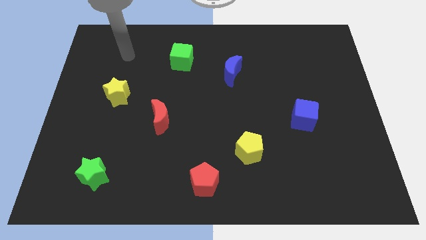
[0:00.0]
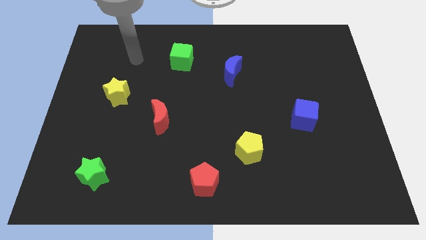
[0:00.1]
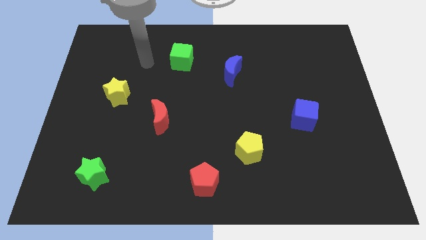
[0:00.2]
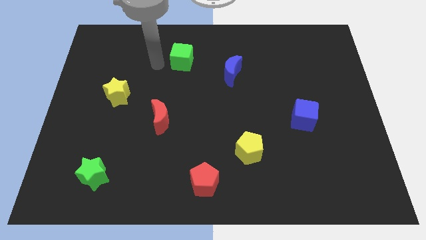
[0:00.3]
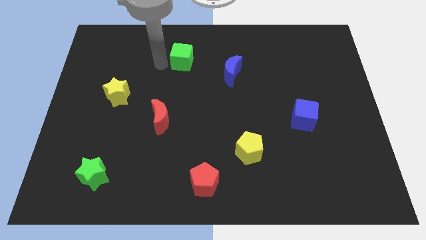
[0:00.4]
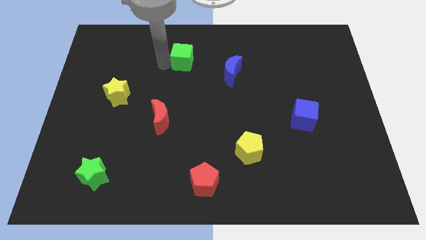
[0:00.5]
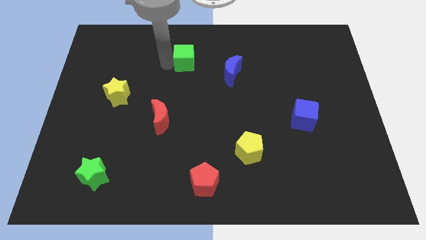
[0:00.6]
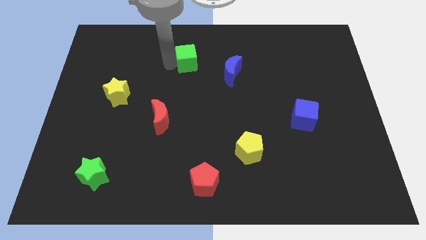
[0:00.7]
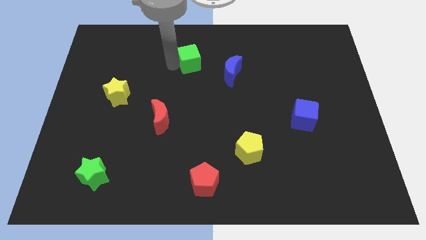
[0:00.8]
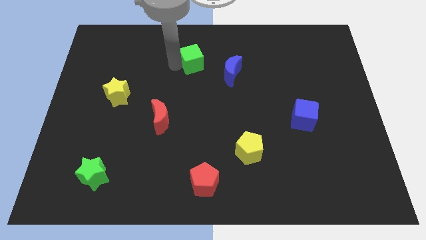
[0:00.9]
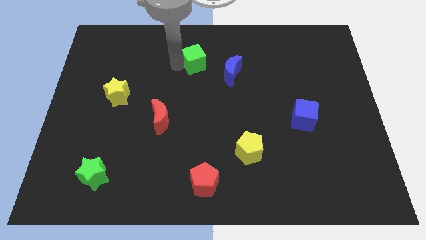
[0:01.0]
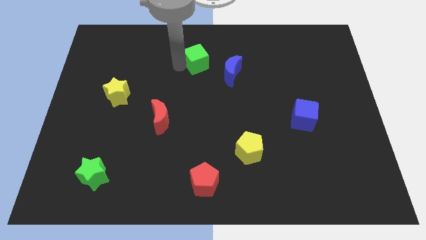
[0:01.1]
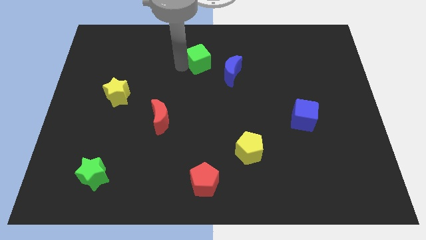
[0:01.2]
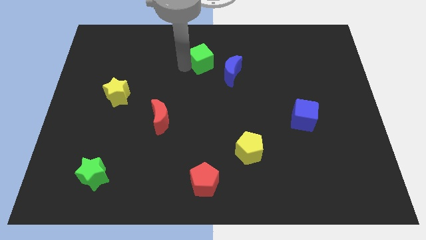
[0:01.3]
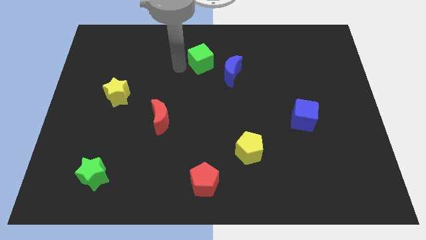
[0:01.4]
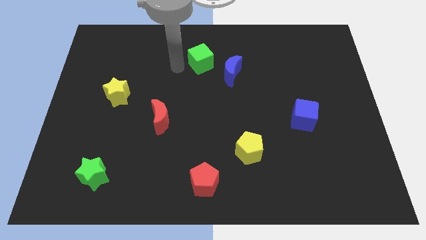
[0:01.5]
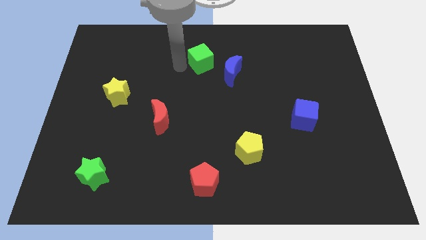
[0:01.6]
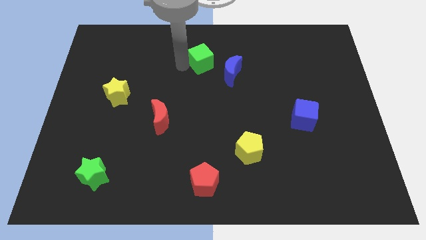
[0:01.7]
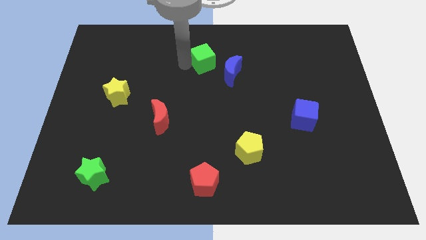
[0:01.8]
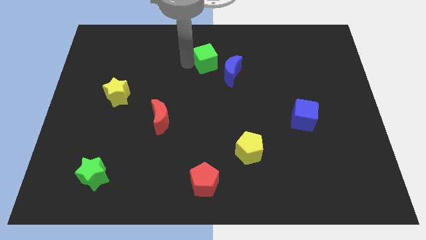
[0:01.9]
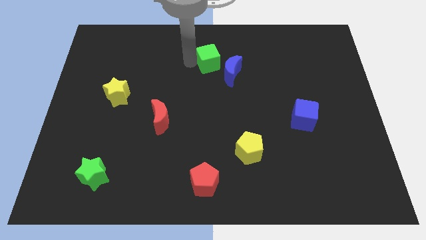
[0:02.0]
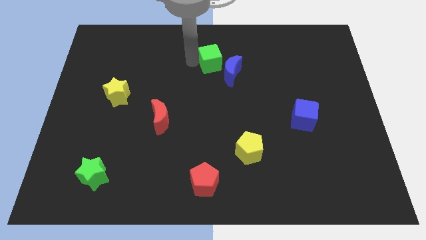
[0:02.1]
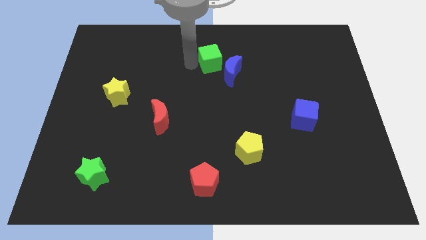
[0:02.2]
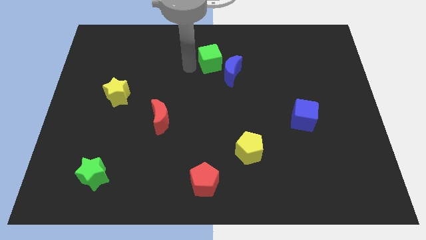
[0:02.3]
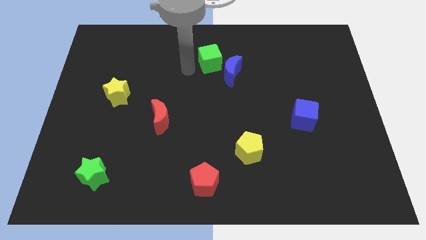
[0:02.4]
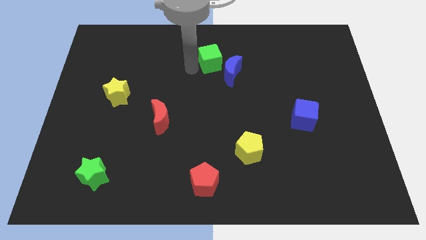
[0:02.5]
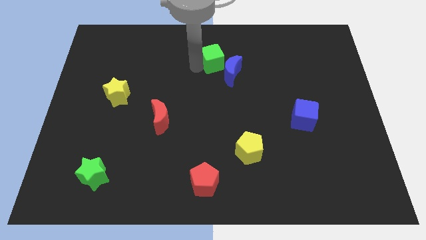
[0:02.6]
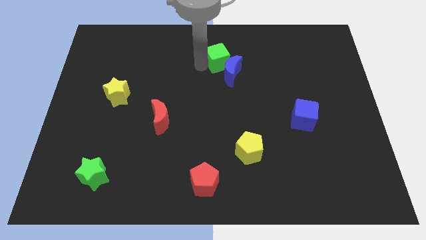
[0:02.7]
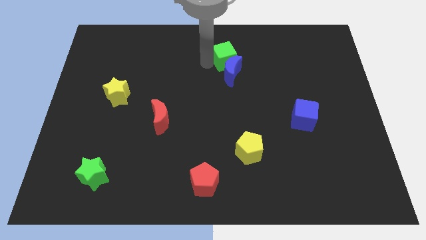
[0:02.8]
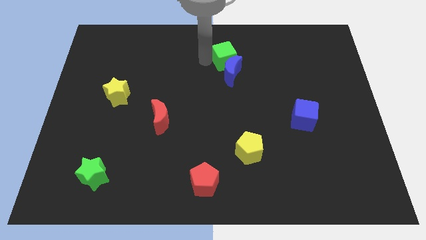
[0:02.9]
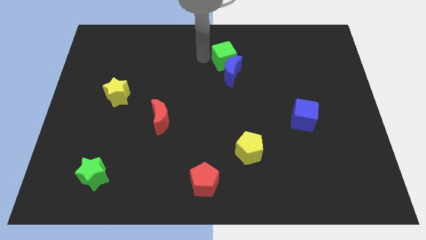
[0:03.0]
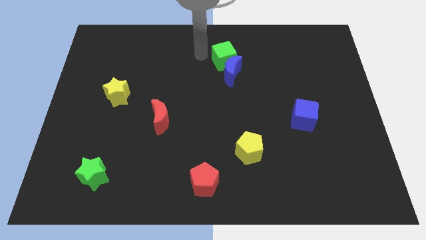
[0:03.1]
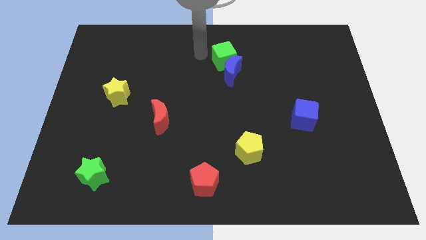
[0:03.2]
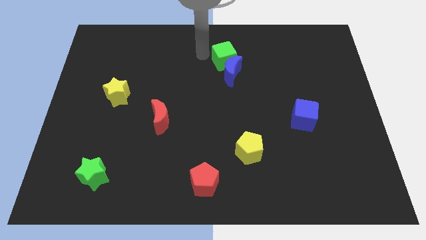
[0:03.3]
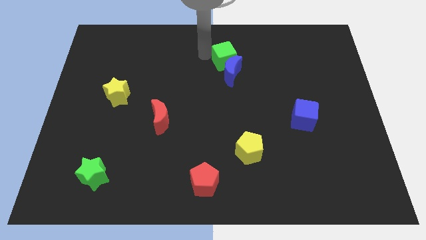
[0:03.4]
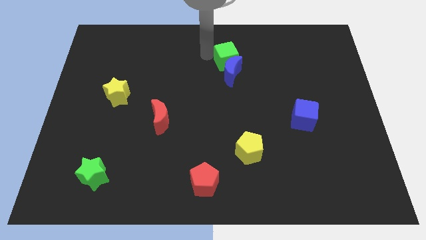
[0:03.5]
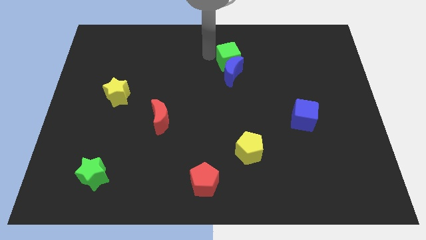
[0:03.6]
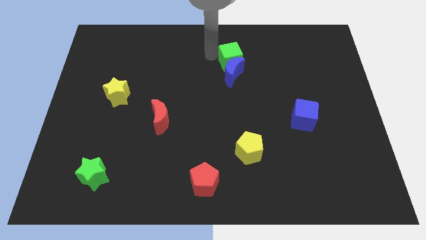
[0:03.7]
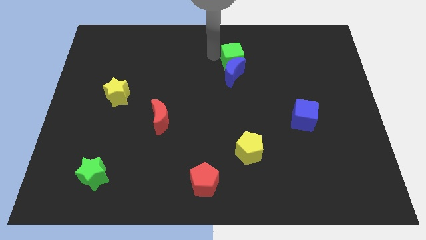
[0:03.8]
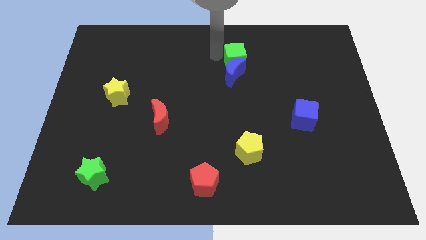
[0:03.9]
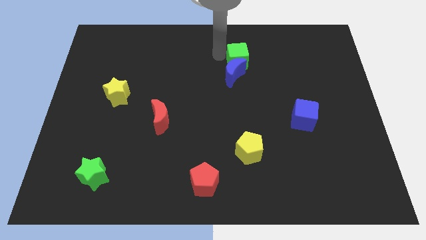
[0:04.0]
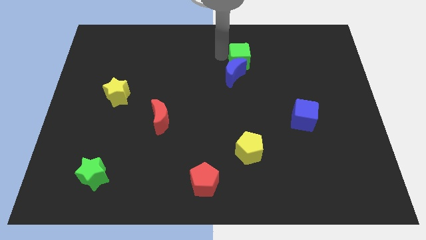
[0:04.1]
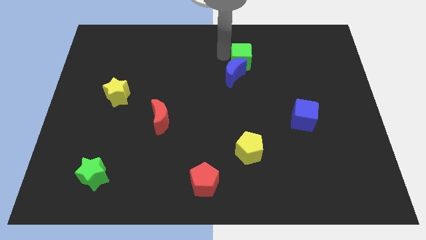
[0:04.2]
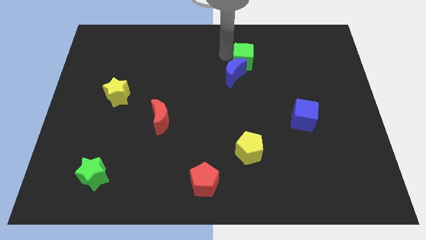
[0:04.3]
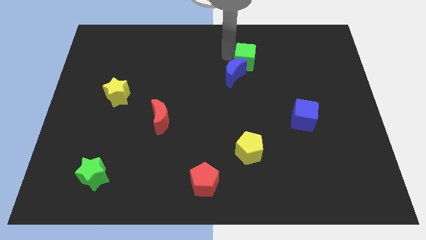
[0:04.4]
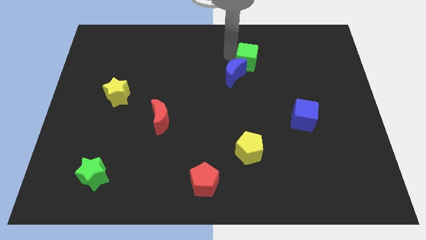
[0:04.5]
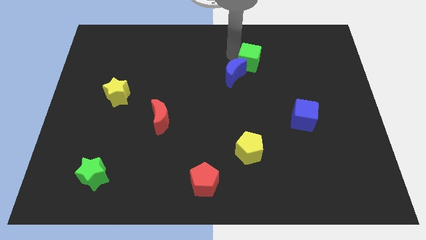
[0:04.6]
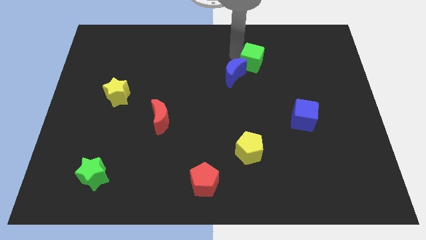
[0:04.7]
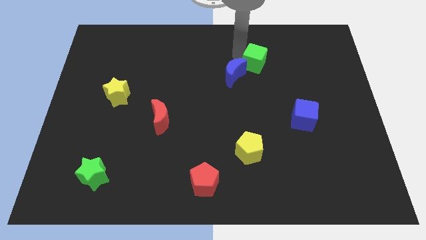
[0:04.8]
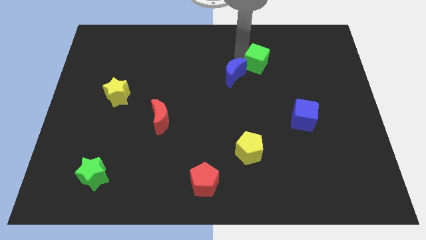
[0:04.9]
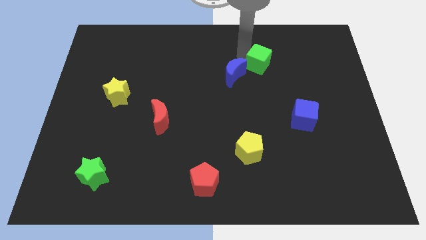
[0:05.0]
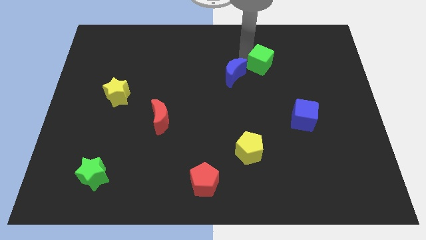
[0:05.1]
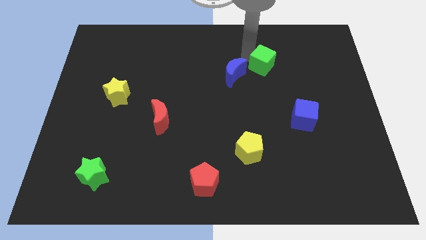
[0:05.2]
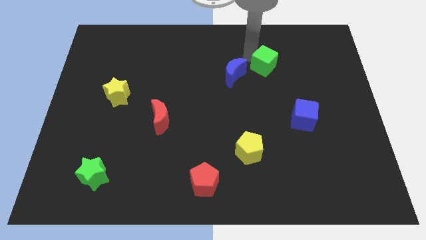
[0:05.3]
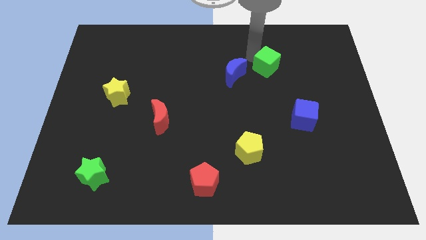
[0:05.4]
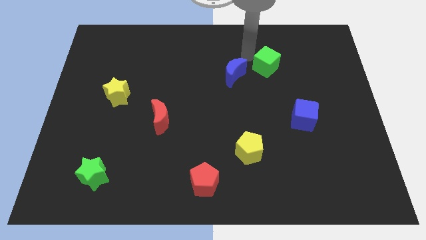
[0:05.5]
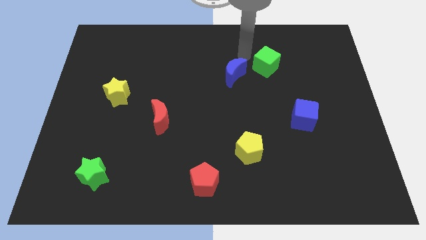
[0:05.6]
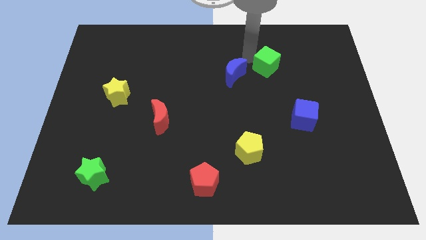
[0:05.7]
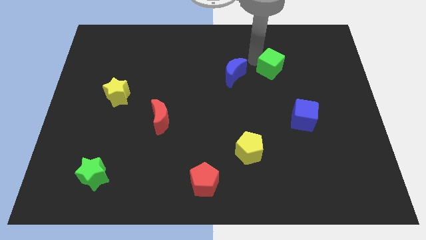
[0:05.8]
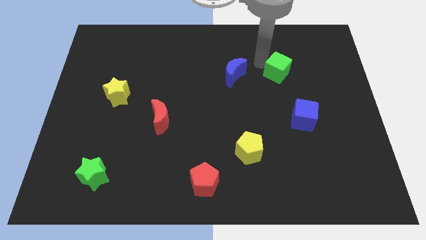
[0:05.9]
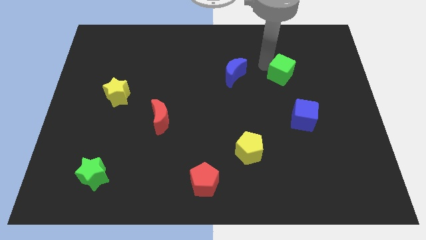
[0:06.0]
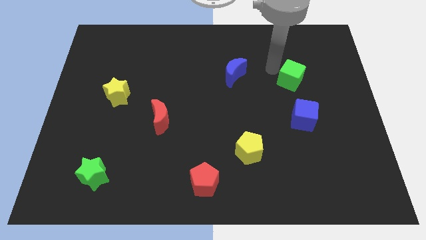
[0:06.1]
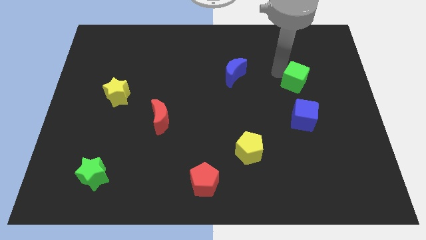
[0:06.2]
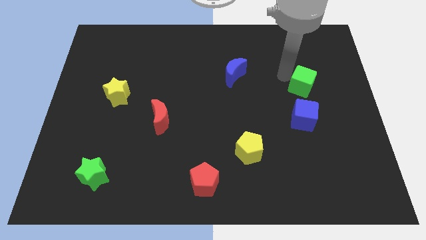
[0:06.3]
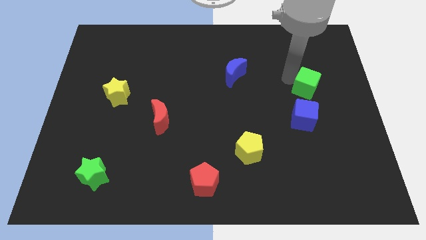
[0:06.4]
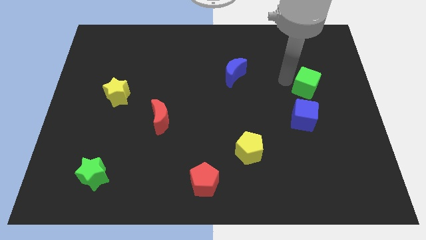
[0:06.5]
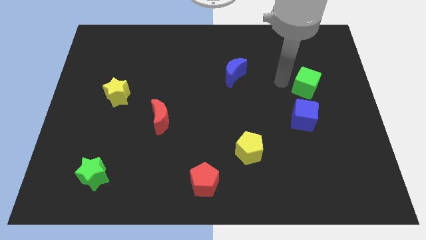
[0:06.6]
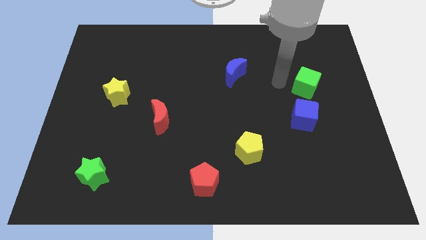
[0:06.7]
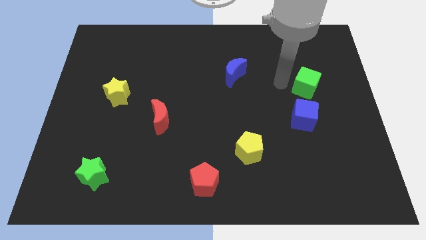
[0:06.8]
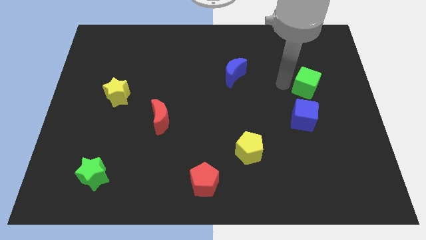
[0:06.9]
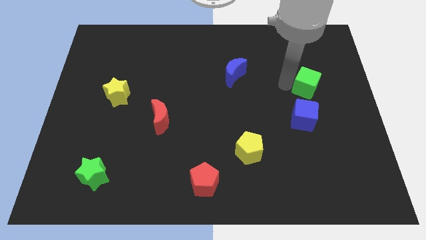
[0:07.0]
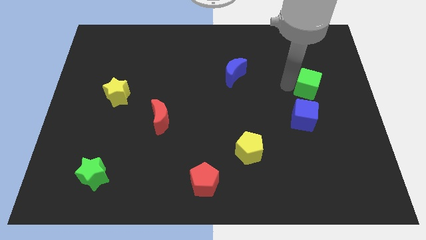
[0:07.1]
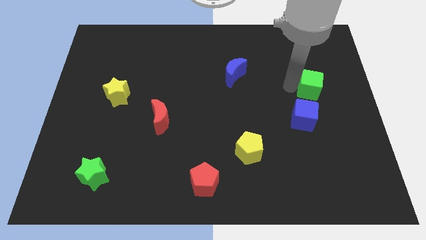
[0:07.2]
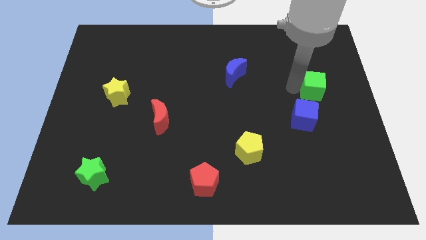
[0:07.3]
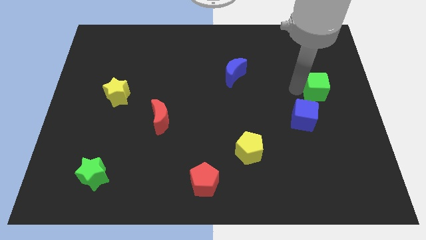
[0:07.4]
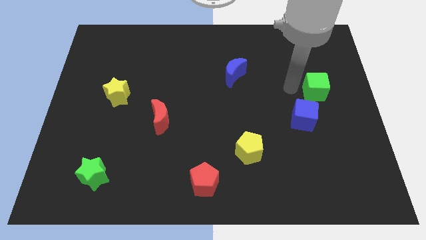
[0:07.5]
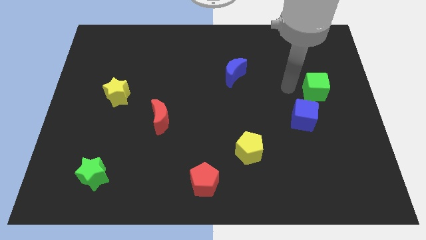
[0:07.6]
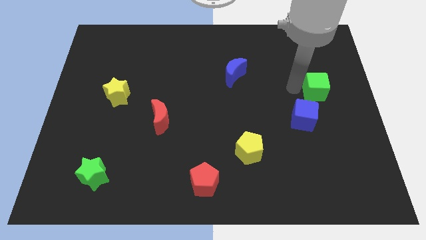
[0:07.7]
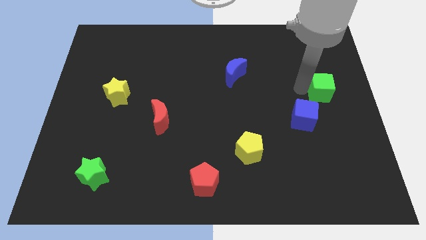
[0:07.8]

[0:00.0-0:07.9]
slide the green cube to the right side of the board
